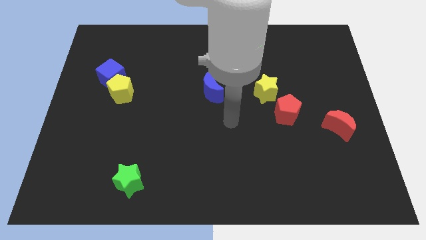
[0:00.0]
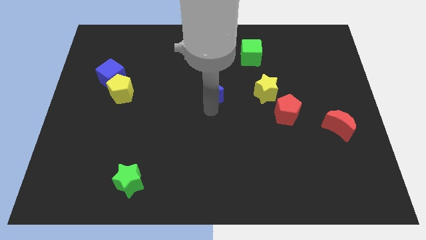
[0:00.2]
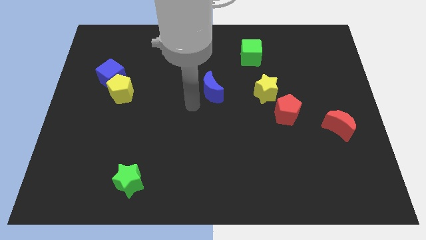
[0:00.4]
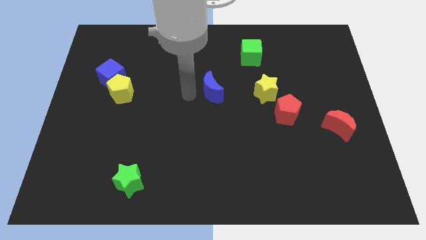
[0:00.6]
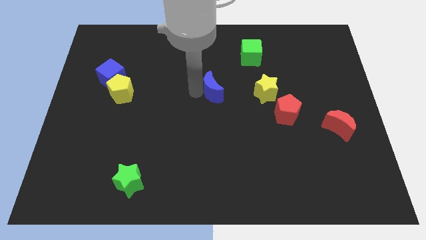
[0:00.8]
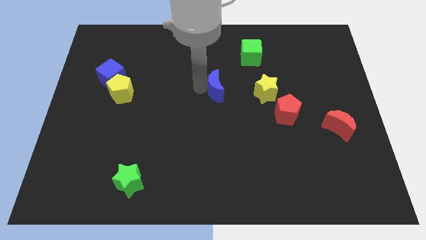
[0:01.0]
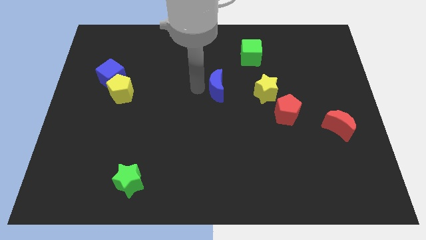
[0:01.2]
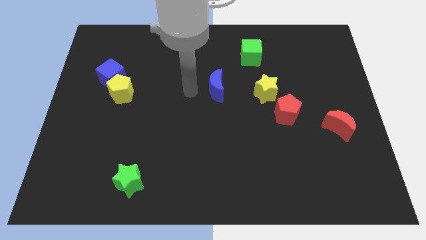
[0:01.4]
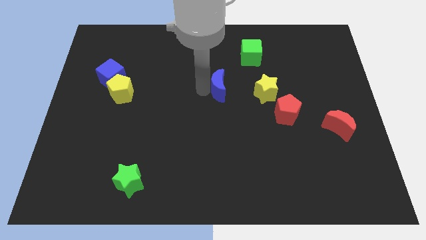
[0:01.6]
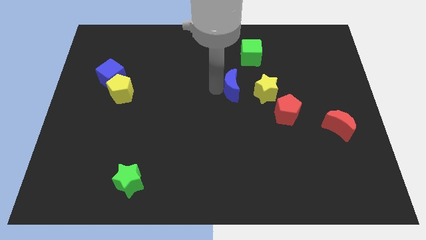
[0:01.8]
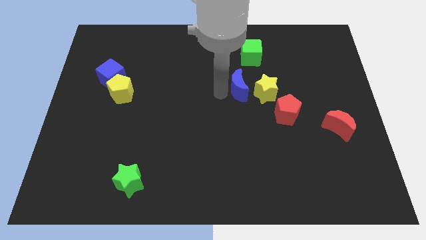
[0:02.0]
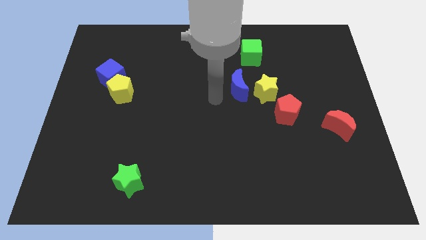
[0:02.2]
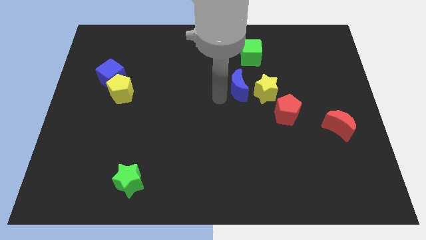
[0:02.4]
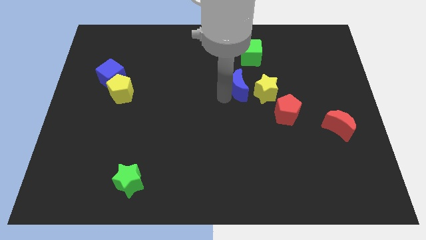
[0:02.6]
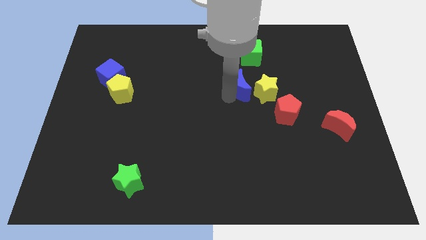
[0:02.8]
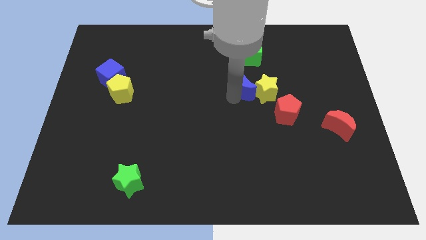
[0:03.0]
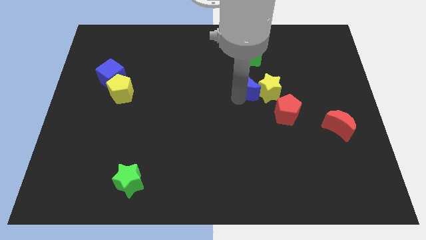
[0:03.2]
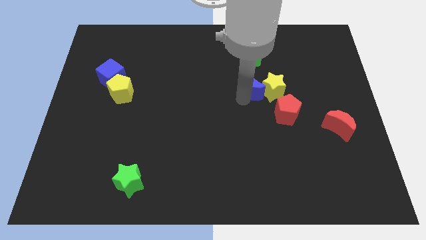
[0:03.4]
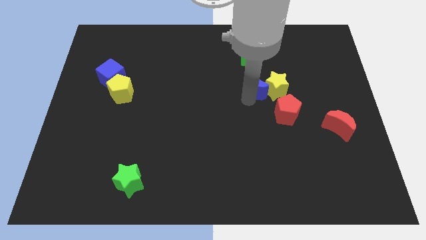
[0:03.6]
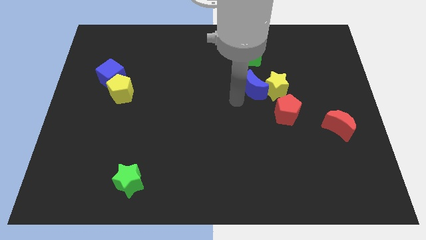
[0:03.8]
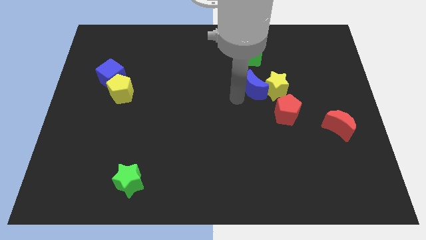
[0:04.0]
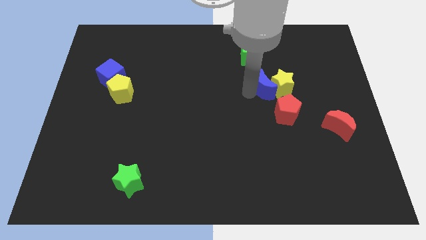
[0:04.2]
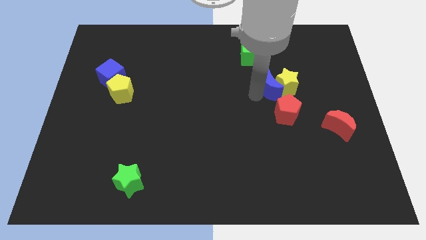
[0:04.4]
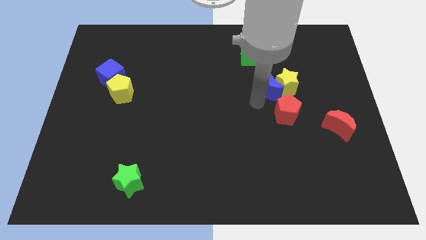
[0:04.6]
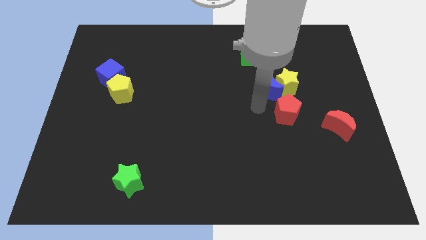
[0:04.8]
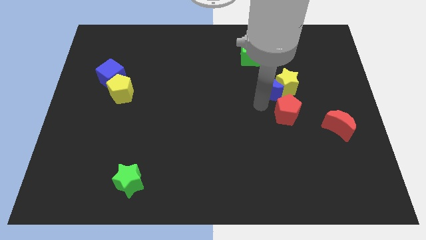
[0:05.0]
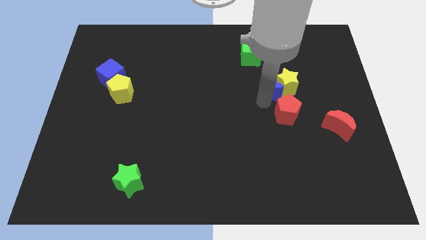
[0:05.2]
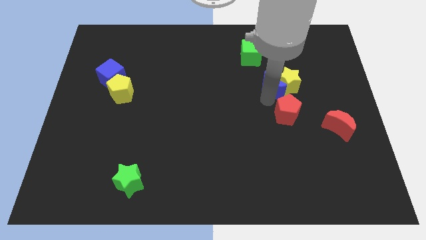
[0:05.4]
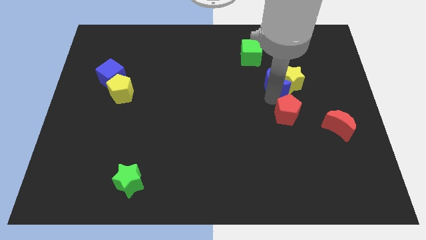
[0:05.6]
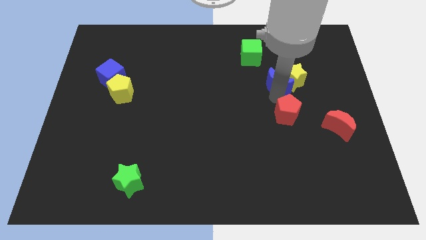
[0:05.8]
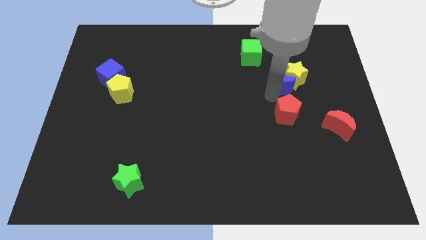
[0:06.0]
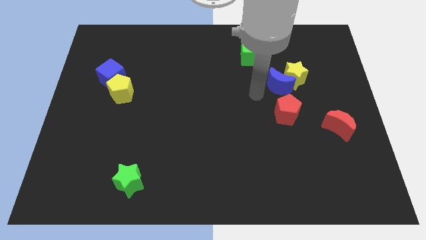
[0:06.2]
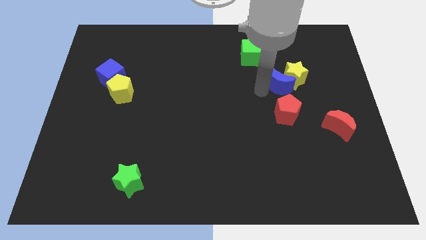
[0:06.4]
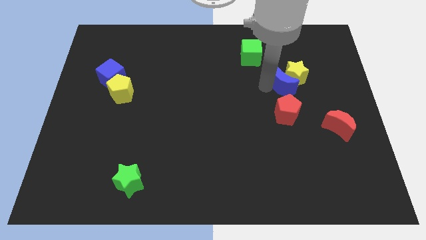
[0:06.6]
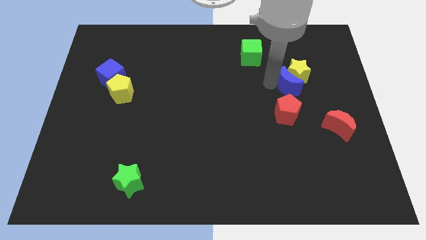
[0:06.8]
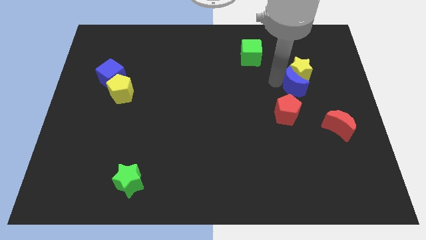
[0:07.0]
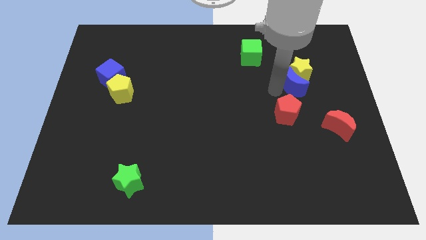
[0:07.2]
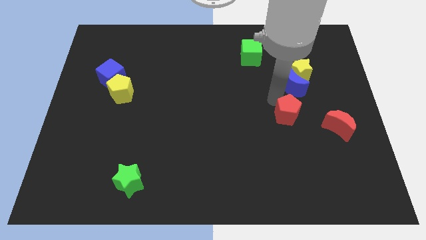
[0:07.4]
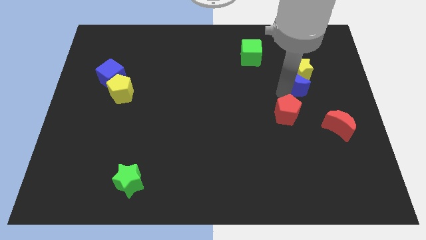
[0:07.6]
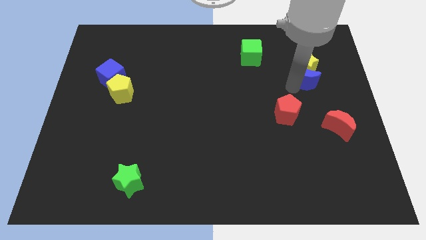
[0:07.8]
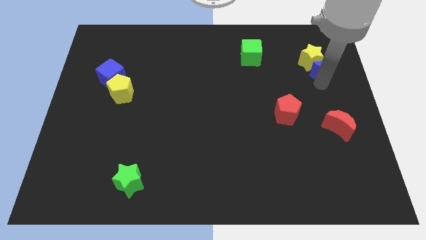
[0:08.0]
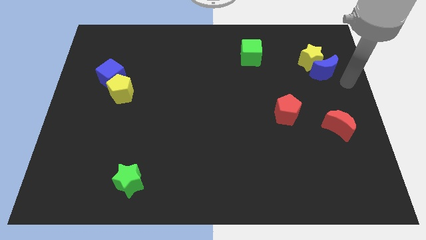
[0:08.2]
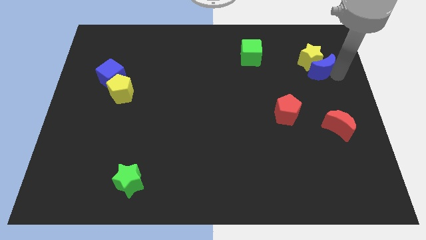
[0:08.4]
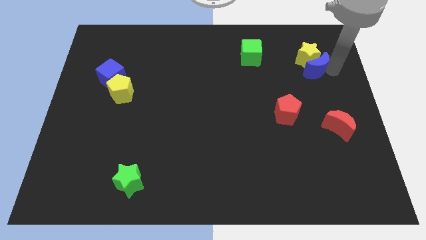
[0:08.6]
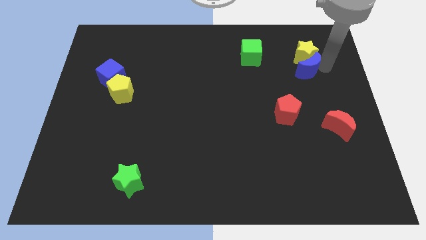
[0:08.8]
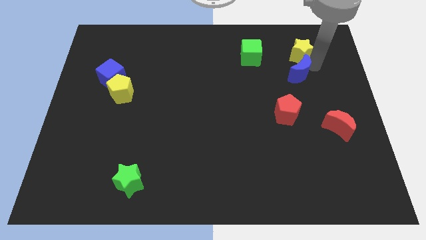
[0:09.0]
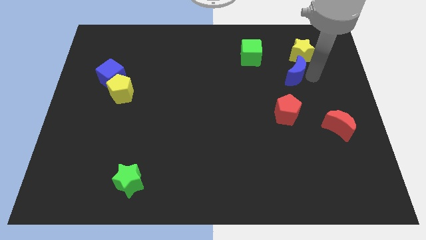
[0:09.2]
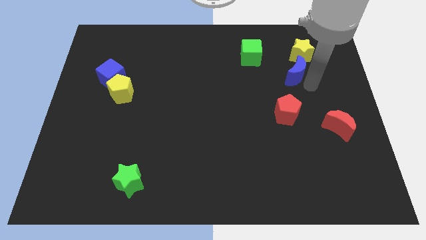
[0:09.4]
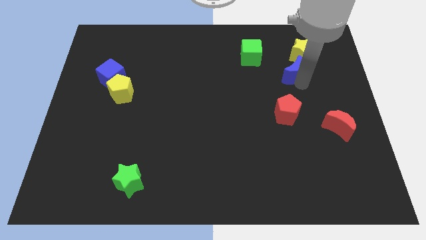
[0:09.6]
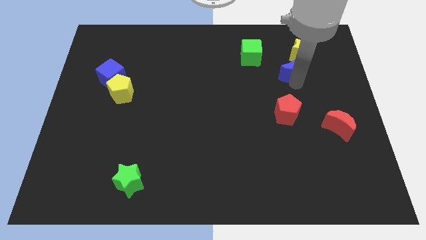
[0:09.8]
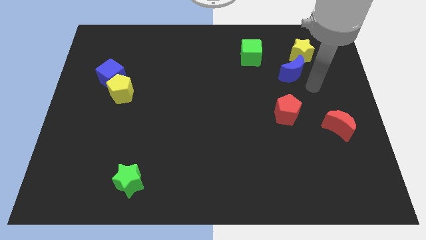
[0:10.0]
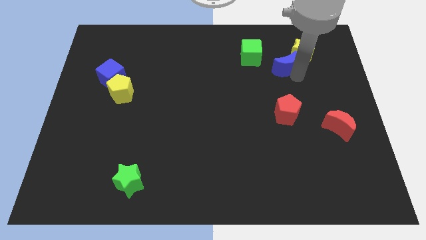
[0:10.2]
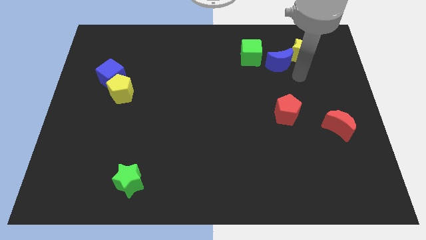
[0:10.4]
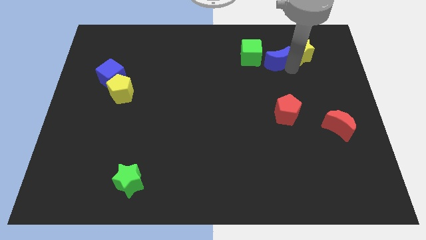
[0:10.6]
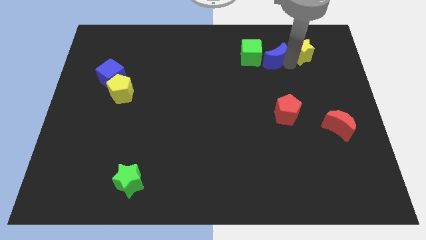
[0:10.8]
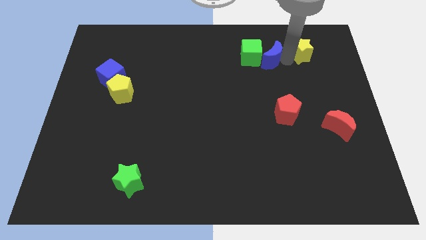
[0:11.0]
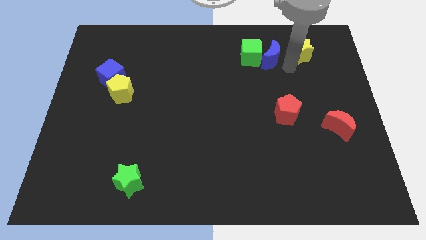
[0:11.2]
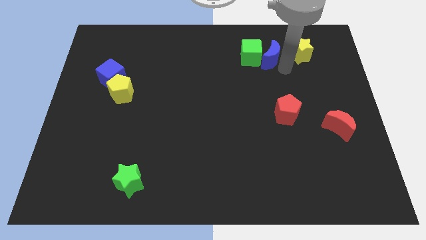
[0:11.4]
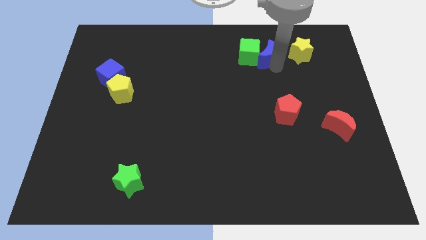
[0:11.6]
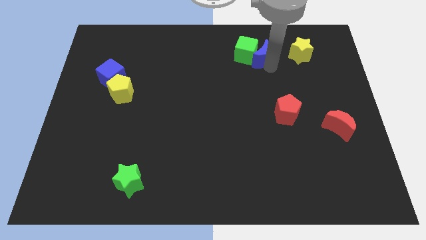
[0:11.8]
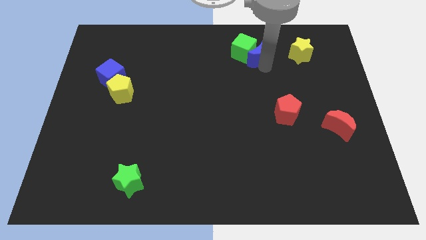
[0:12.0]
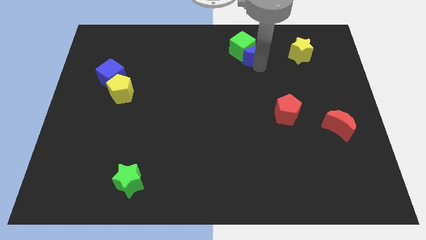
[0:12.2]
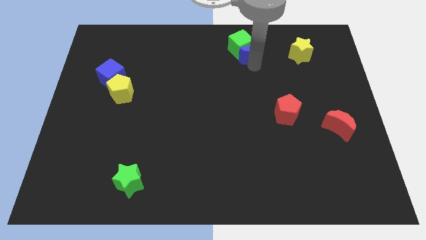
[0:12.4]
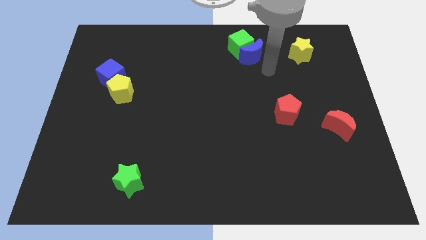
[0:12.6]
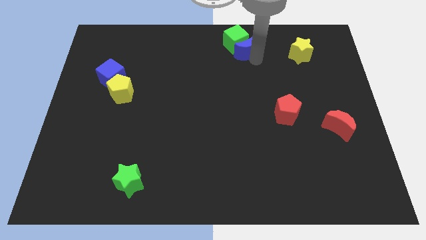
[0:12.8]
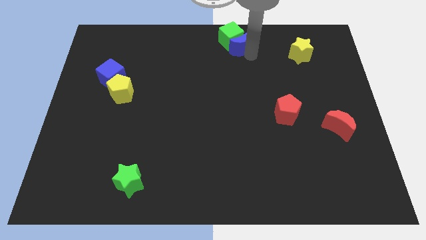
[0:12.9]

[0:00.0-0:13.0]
move the blue moon to the towards your base
